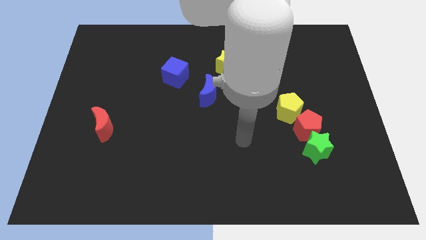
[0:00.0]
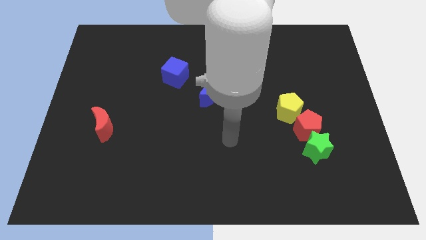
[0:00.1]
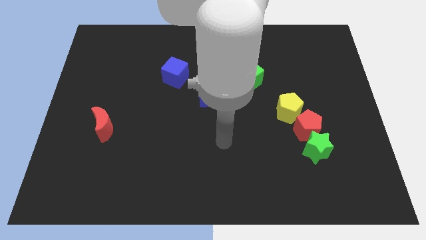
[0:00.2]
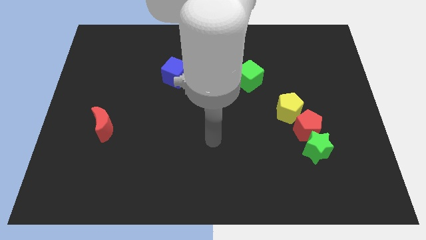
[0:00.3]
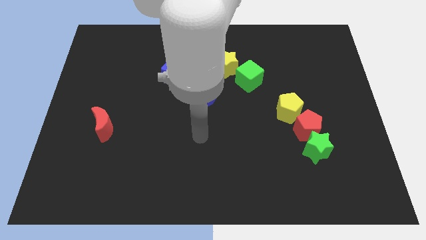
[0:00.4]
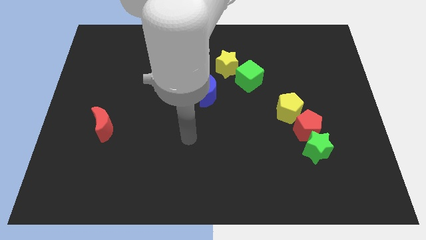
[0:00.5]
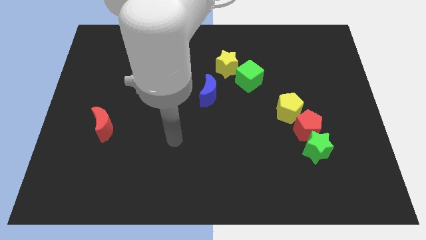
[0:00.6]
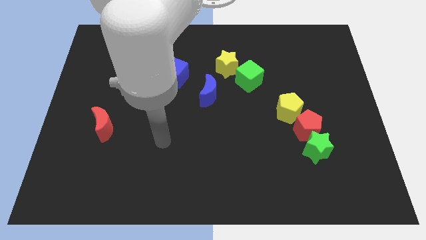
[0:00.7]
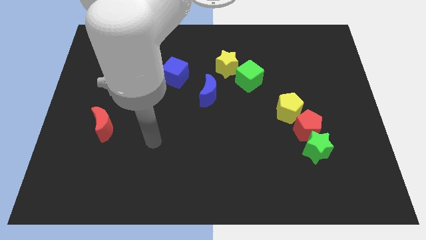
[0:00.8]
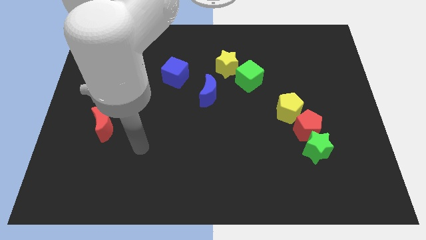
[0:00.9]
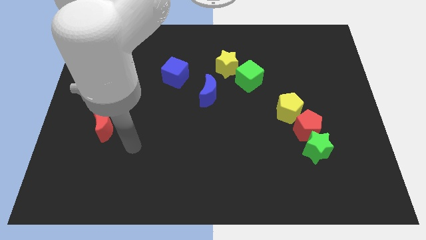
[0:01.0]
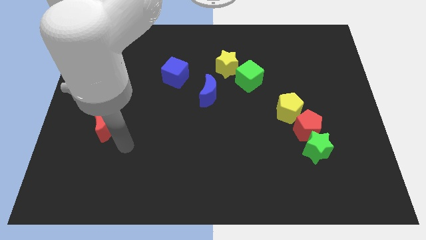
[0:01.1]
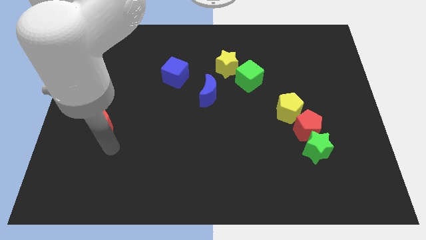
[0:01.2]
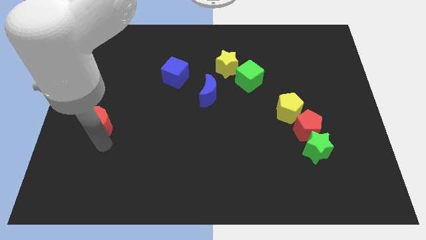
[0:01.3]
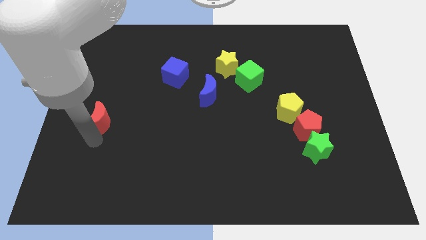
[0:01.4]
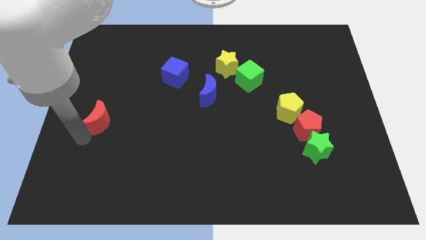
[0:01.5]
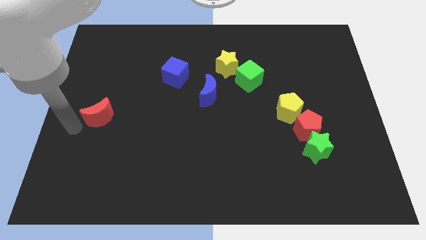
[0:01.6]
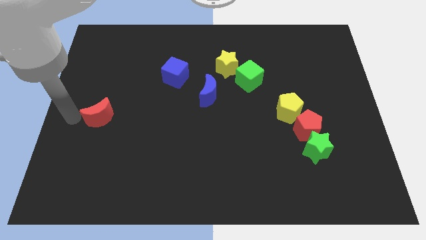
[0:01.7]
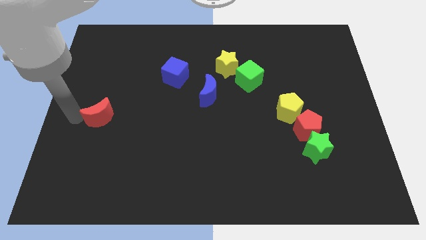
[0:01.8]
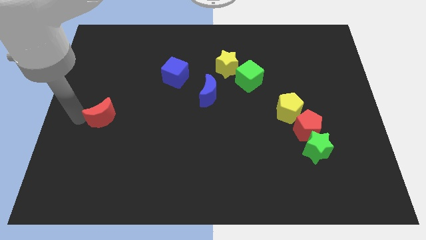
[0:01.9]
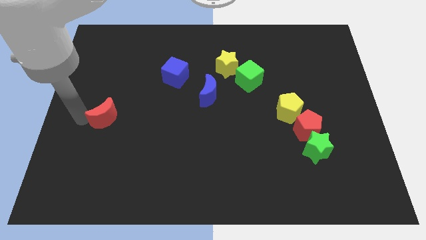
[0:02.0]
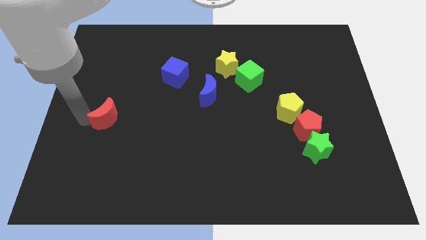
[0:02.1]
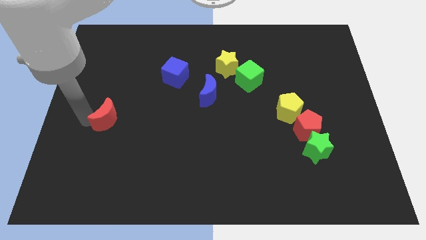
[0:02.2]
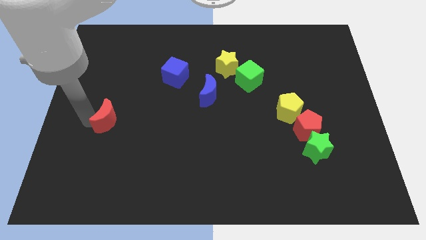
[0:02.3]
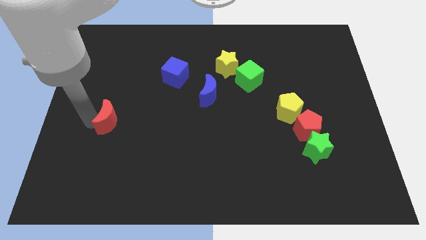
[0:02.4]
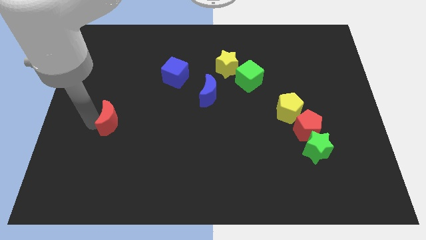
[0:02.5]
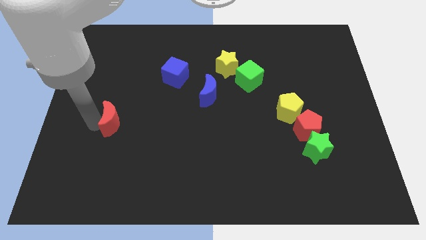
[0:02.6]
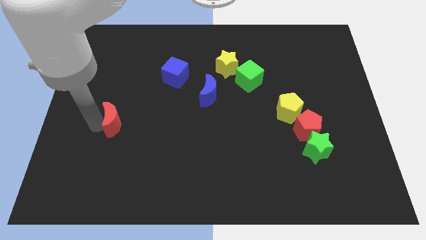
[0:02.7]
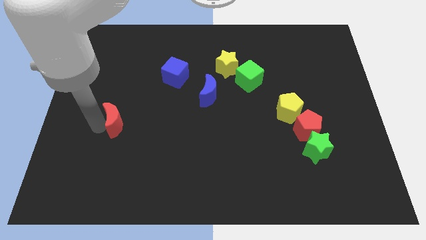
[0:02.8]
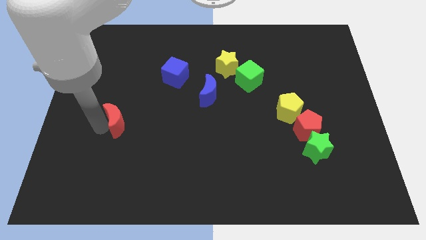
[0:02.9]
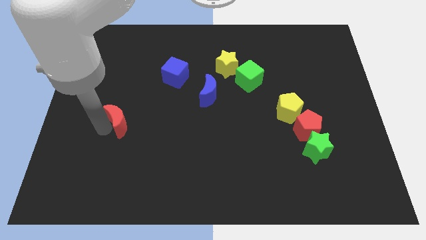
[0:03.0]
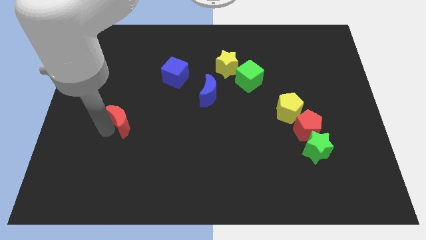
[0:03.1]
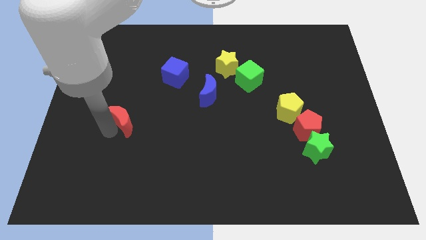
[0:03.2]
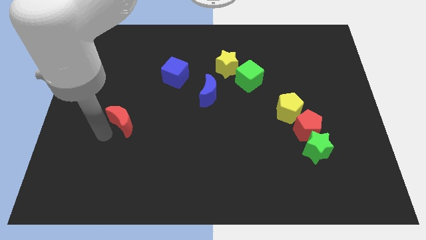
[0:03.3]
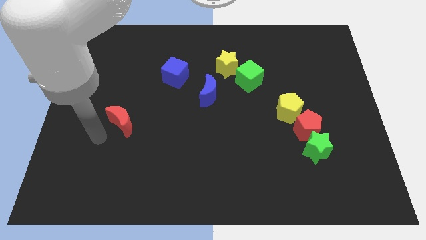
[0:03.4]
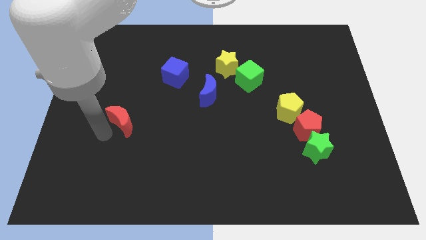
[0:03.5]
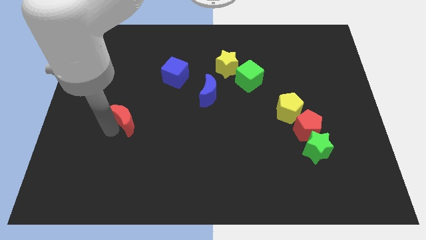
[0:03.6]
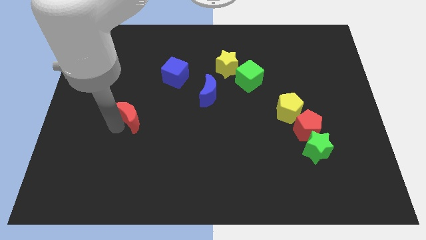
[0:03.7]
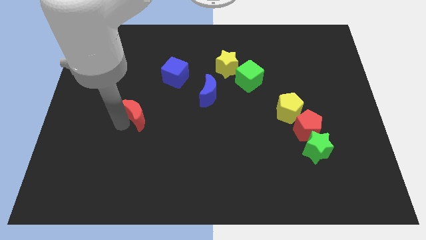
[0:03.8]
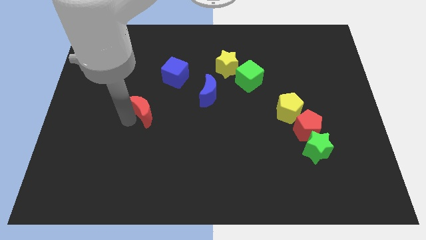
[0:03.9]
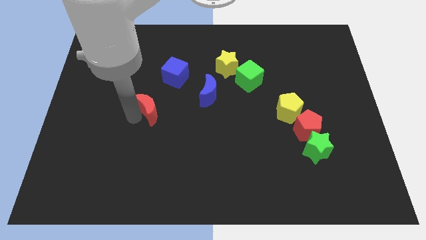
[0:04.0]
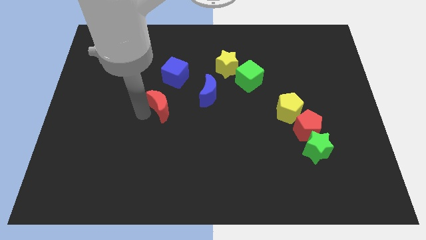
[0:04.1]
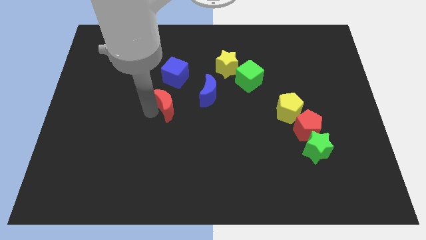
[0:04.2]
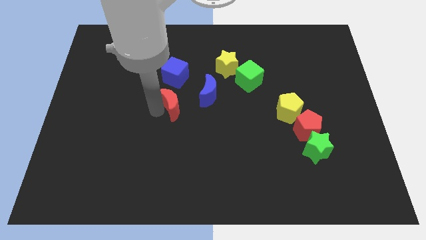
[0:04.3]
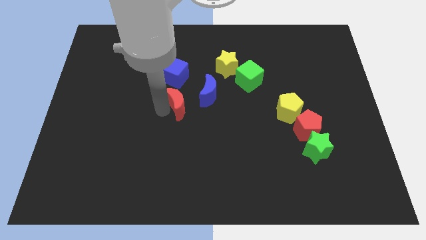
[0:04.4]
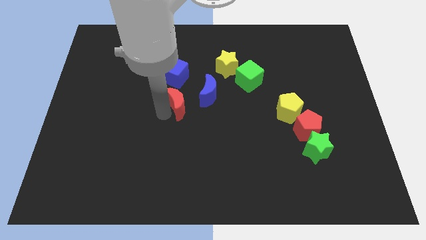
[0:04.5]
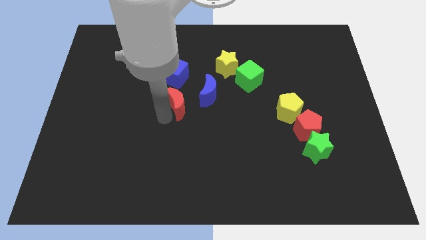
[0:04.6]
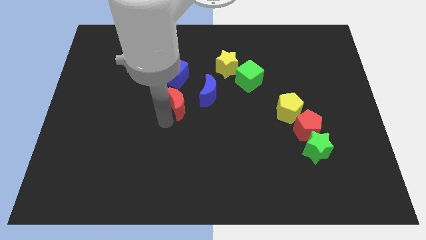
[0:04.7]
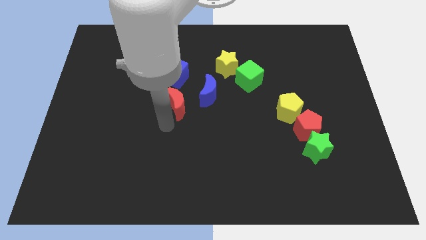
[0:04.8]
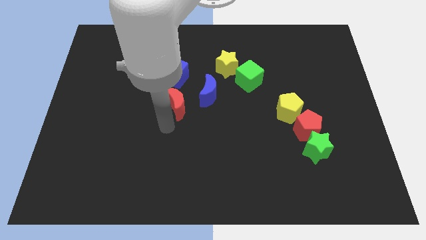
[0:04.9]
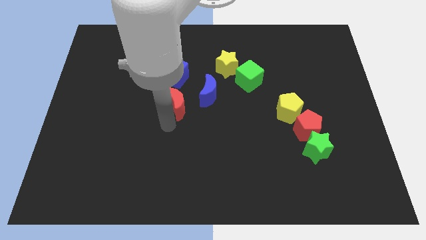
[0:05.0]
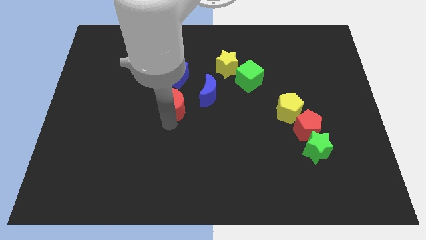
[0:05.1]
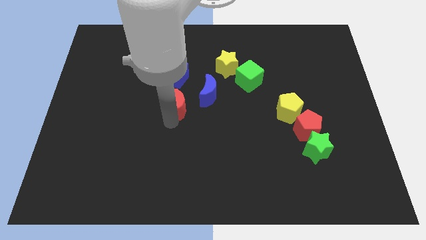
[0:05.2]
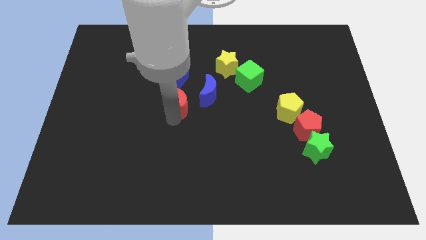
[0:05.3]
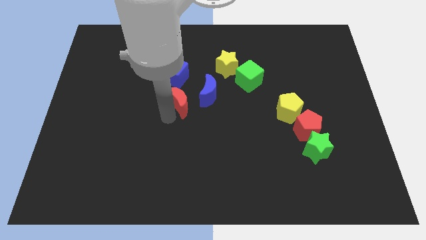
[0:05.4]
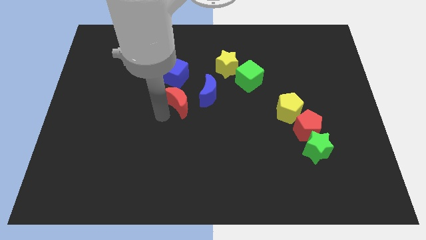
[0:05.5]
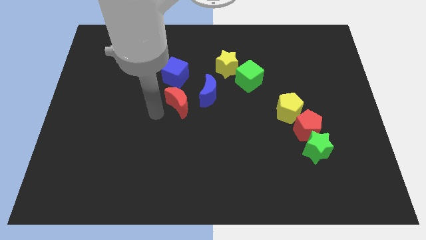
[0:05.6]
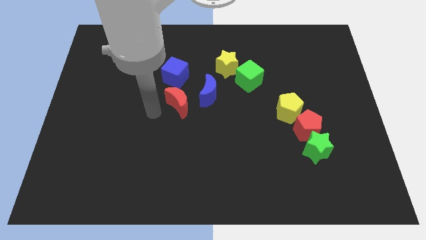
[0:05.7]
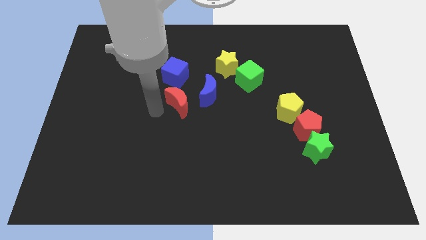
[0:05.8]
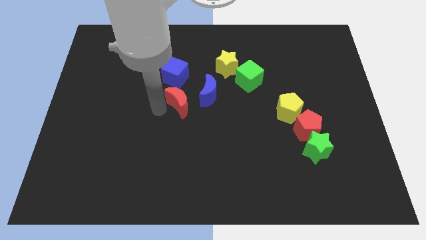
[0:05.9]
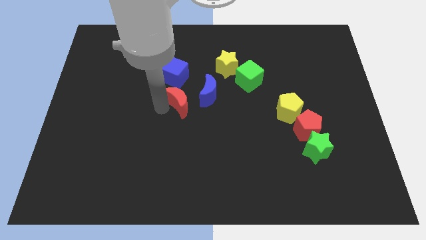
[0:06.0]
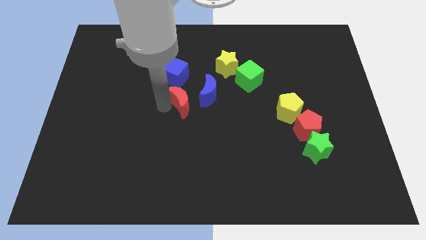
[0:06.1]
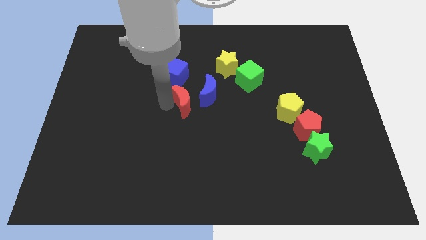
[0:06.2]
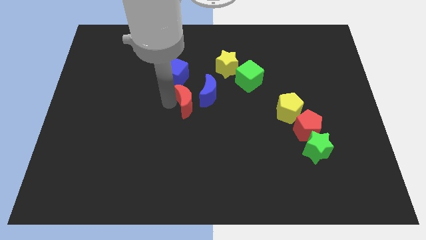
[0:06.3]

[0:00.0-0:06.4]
slide the red moon towards the blue moon

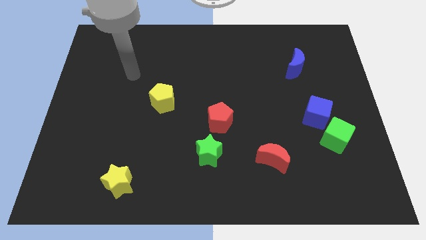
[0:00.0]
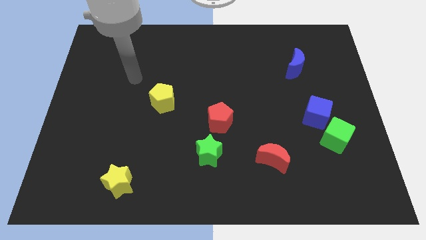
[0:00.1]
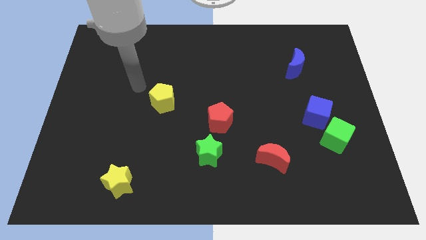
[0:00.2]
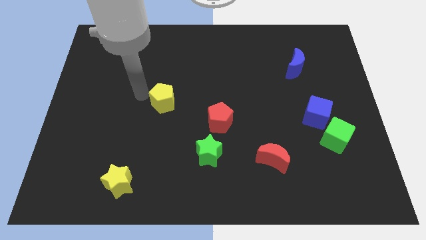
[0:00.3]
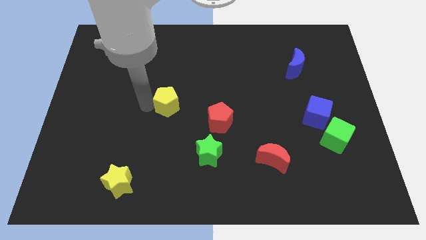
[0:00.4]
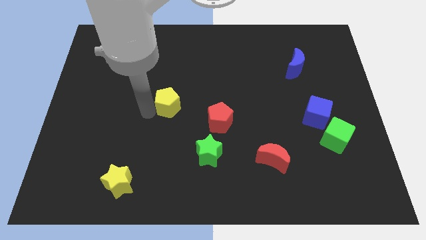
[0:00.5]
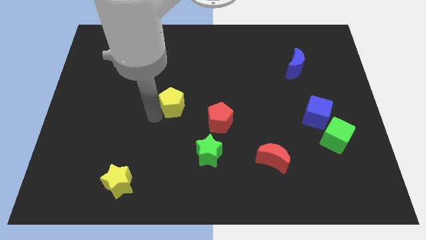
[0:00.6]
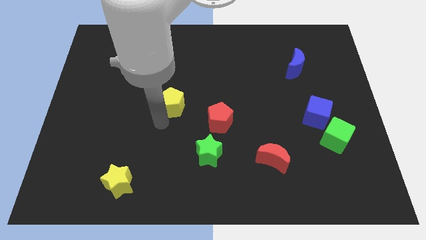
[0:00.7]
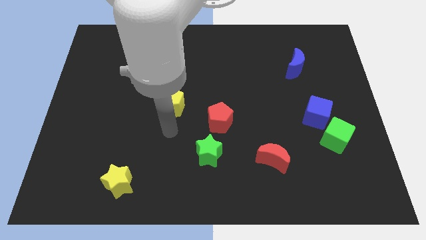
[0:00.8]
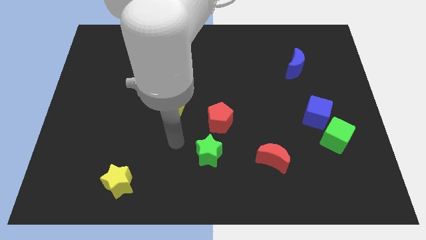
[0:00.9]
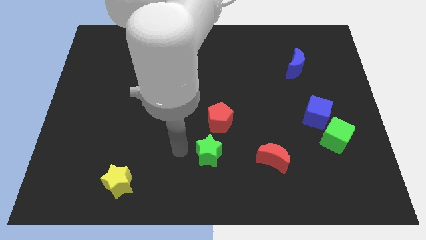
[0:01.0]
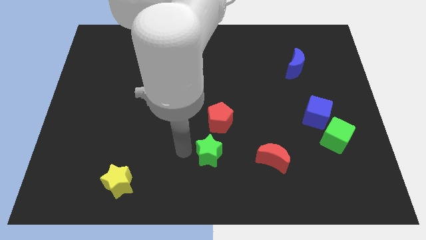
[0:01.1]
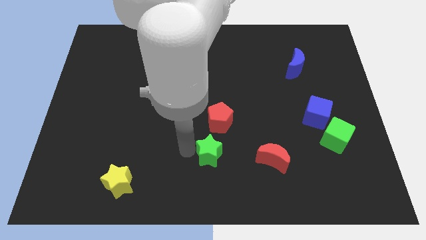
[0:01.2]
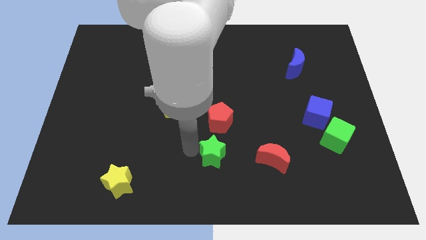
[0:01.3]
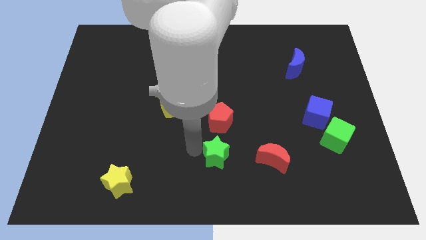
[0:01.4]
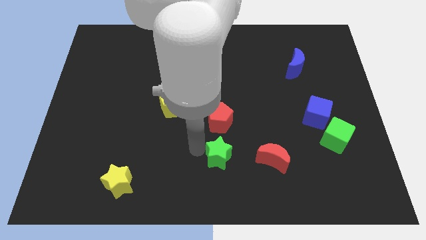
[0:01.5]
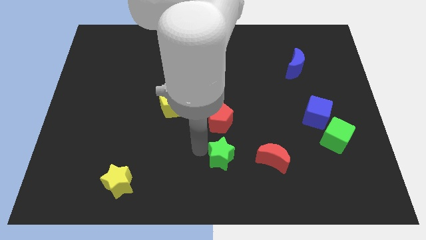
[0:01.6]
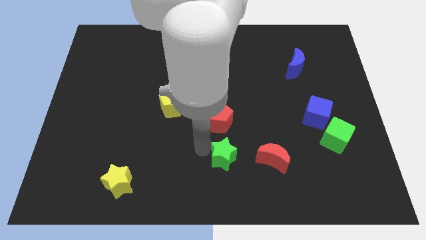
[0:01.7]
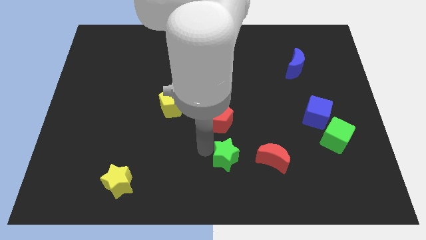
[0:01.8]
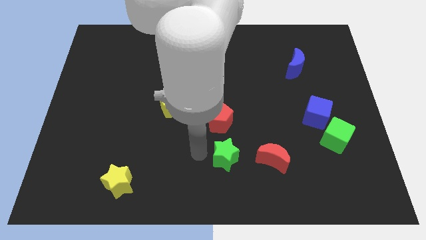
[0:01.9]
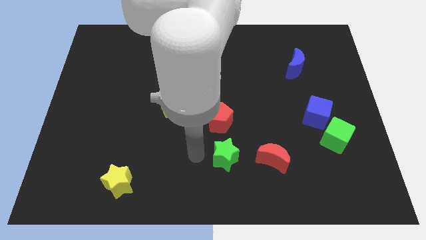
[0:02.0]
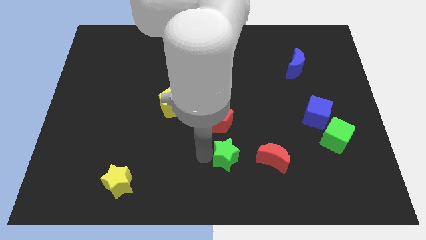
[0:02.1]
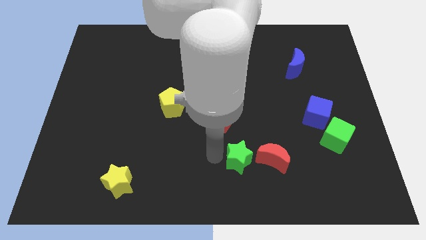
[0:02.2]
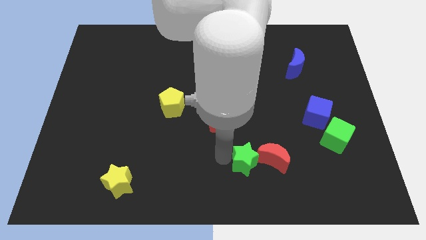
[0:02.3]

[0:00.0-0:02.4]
move the green star to the red moon
